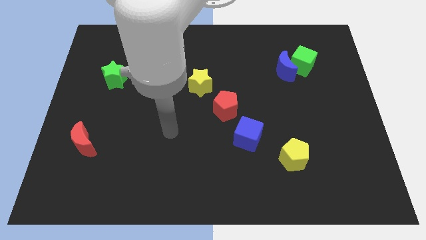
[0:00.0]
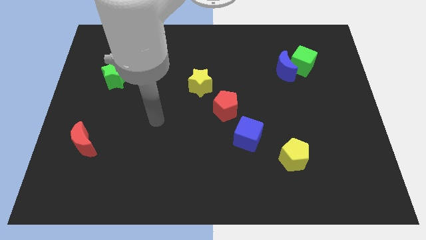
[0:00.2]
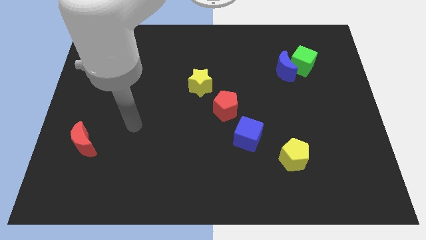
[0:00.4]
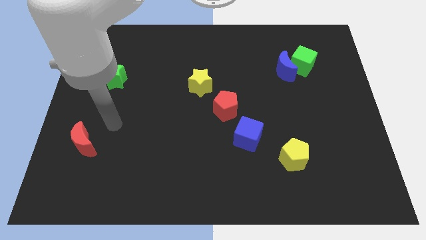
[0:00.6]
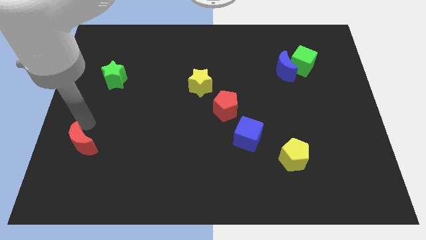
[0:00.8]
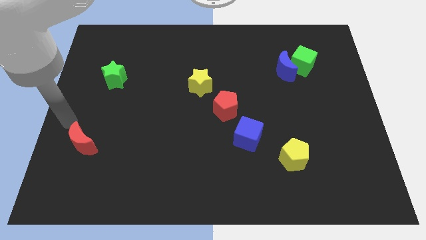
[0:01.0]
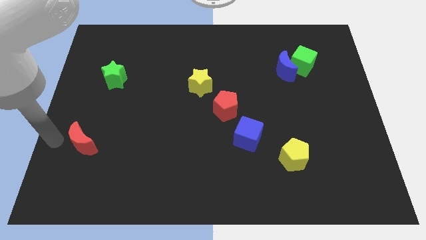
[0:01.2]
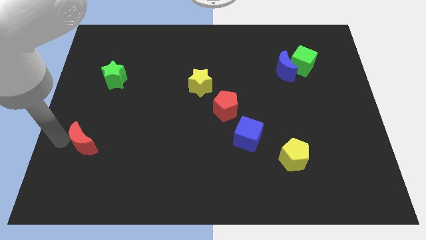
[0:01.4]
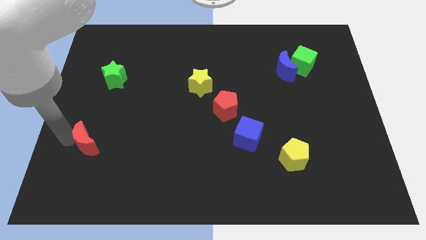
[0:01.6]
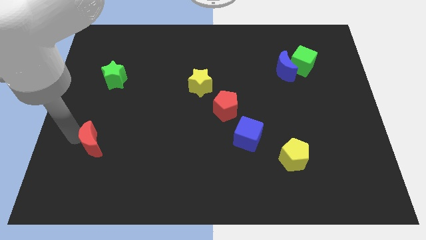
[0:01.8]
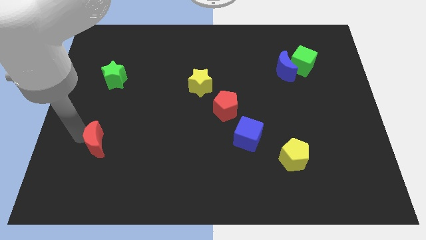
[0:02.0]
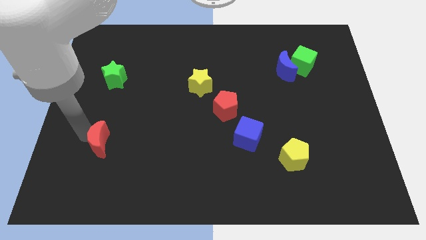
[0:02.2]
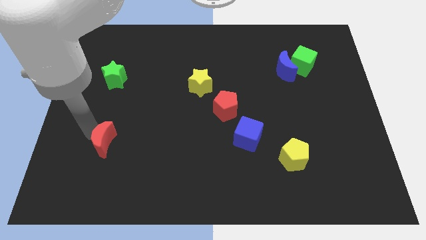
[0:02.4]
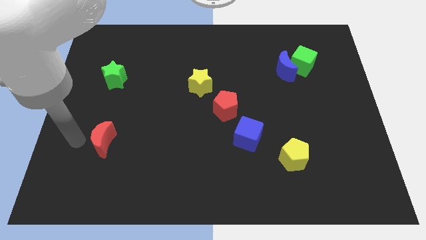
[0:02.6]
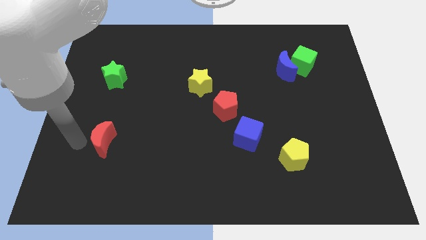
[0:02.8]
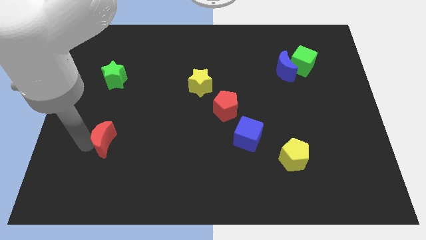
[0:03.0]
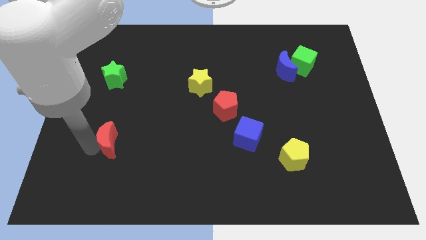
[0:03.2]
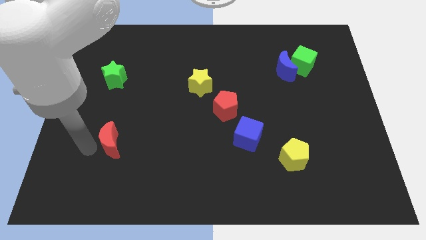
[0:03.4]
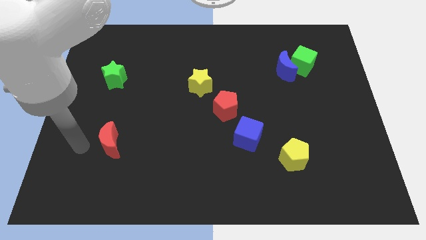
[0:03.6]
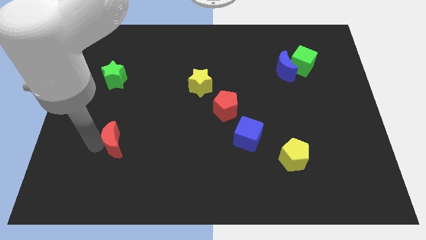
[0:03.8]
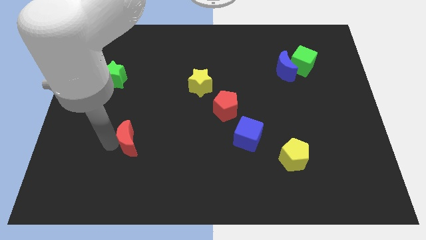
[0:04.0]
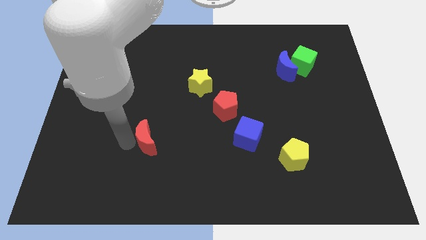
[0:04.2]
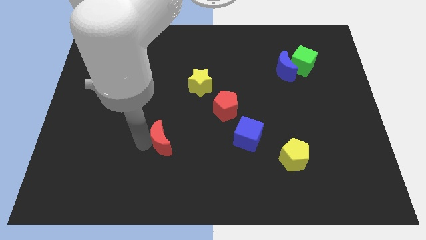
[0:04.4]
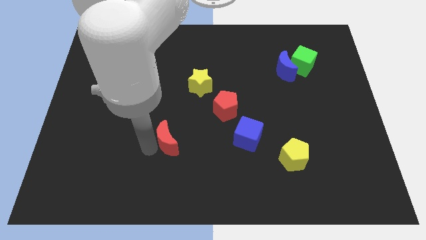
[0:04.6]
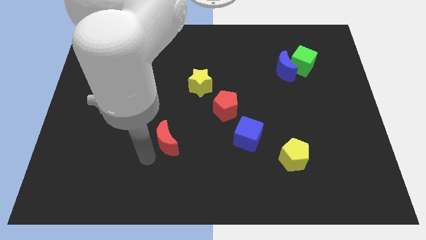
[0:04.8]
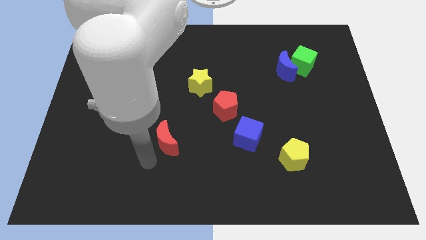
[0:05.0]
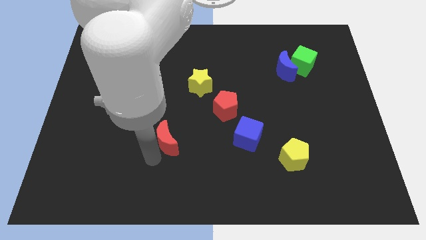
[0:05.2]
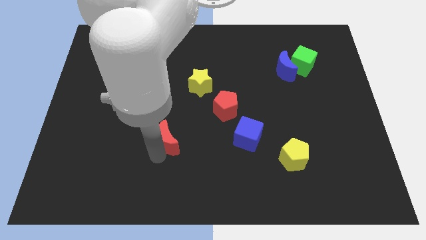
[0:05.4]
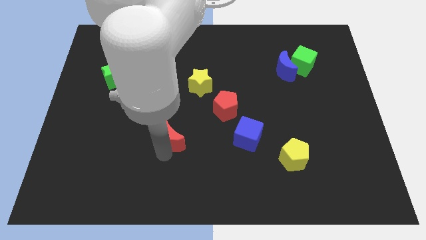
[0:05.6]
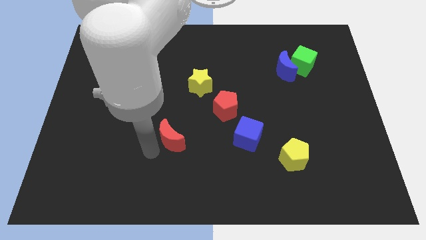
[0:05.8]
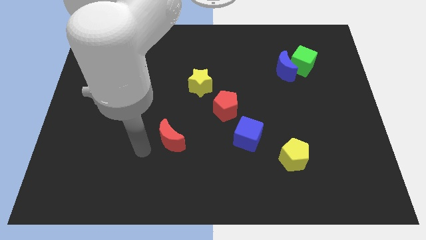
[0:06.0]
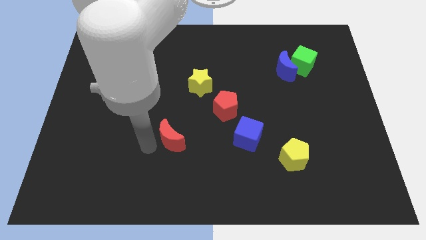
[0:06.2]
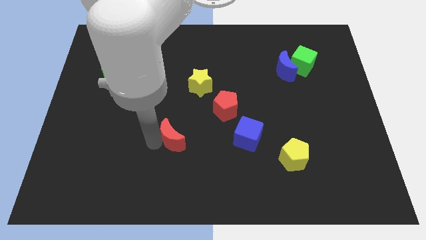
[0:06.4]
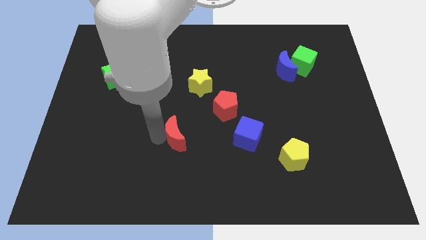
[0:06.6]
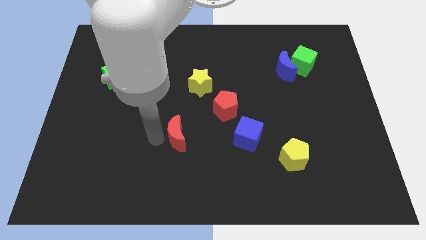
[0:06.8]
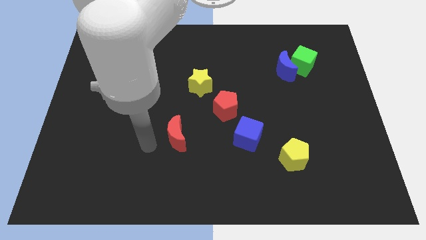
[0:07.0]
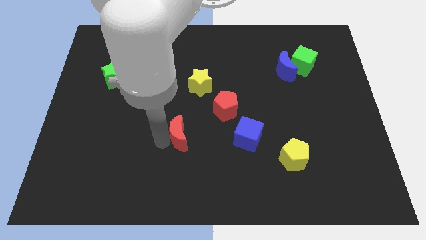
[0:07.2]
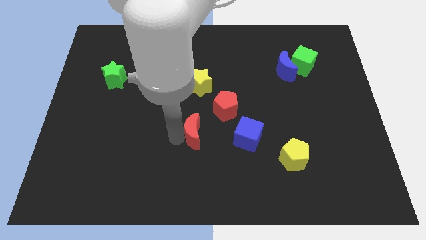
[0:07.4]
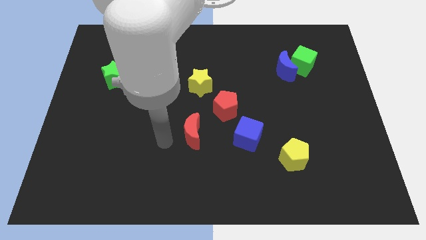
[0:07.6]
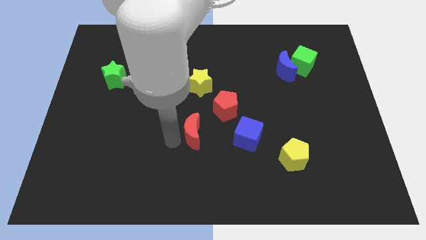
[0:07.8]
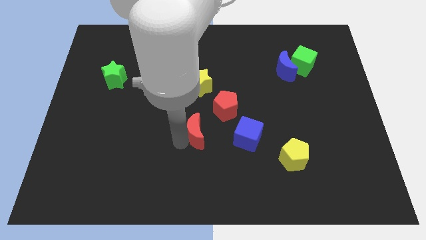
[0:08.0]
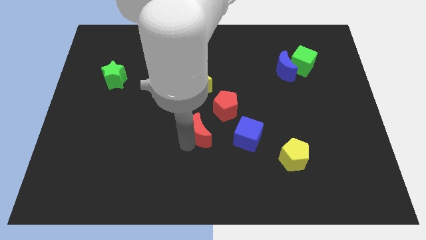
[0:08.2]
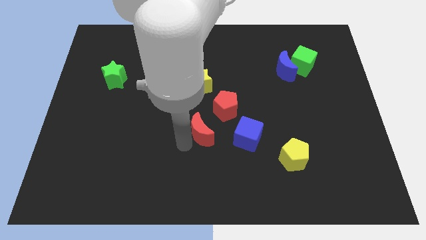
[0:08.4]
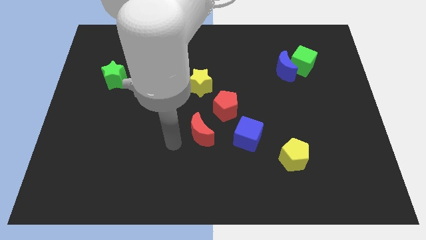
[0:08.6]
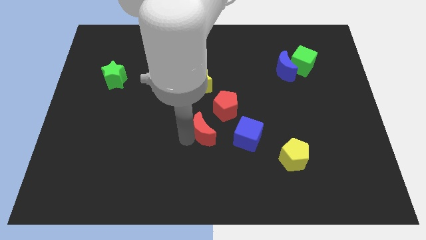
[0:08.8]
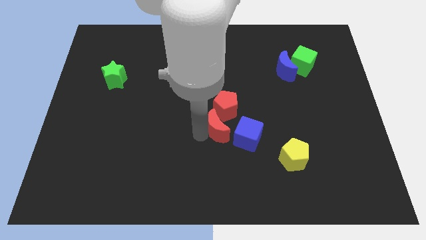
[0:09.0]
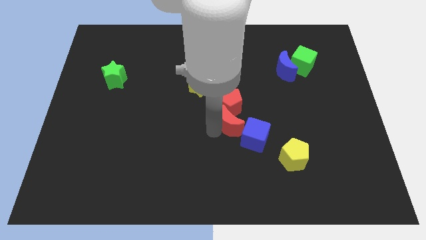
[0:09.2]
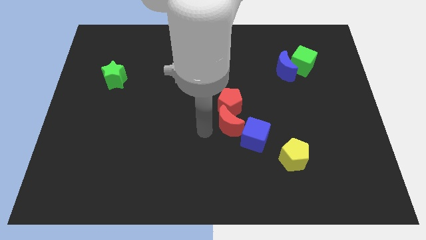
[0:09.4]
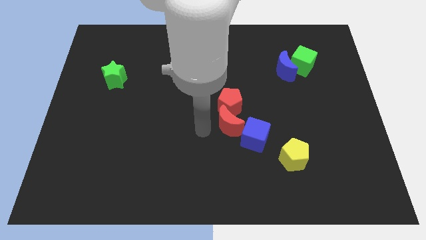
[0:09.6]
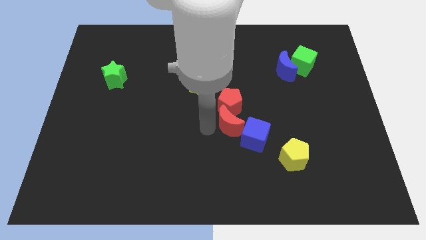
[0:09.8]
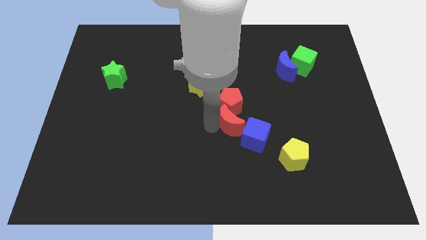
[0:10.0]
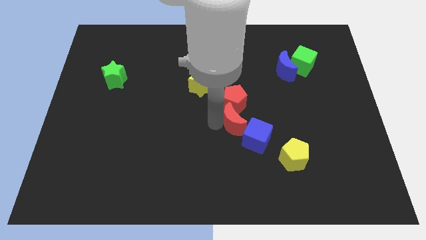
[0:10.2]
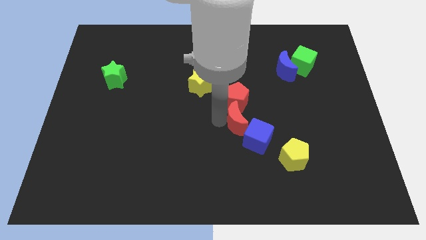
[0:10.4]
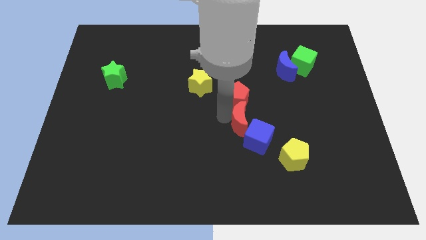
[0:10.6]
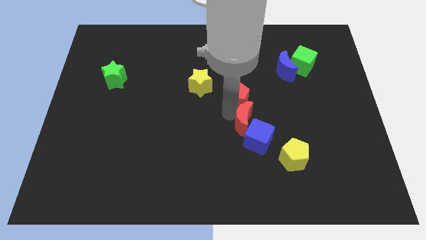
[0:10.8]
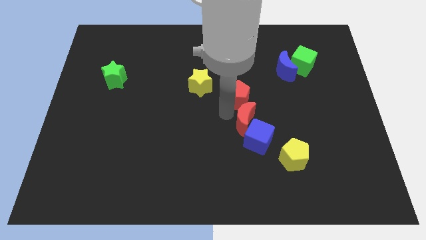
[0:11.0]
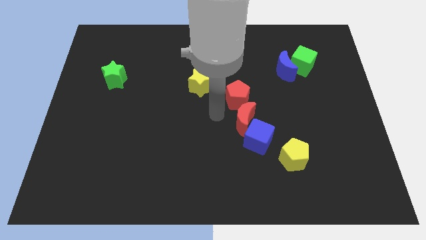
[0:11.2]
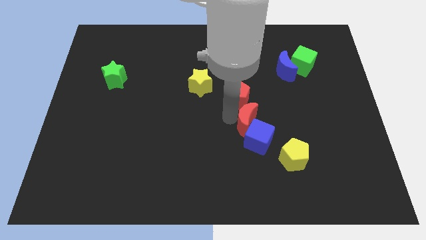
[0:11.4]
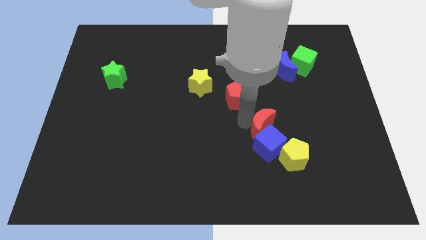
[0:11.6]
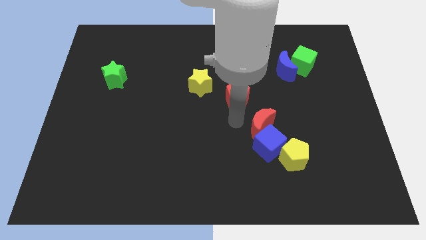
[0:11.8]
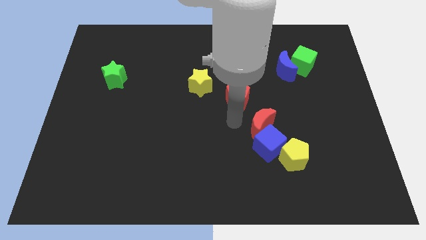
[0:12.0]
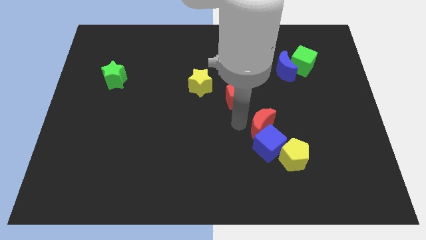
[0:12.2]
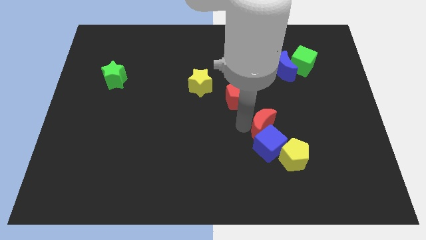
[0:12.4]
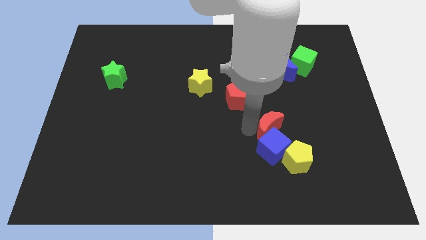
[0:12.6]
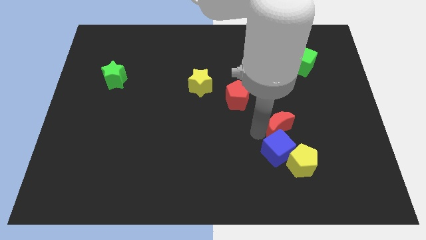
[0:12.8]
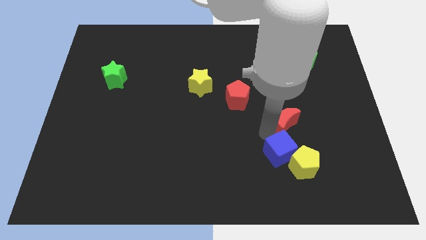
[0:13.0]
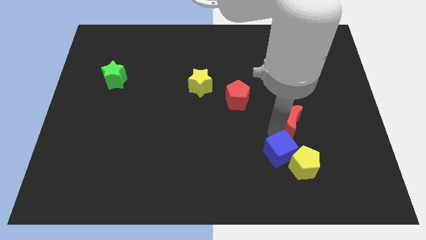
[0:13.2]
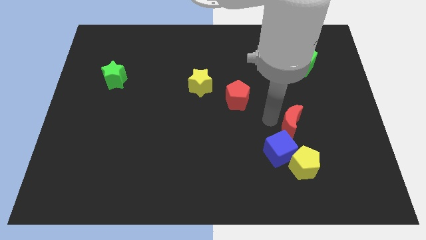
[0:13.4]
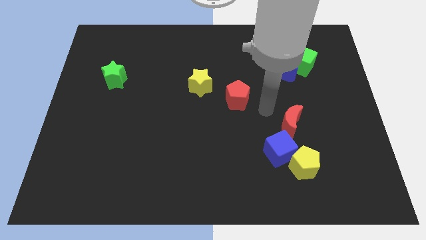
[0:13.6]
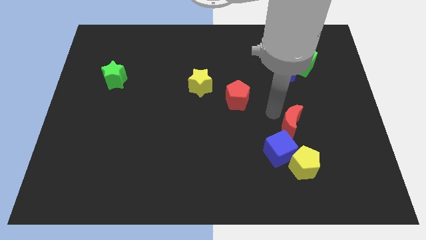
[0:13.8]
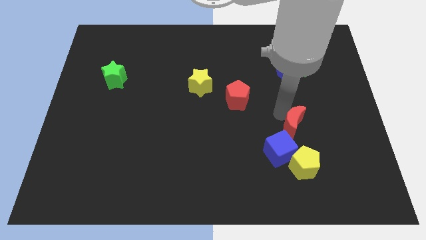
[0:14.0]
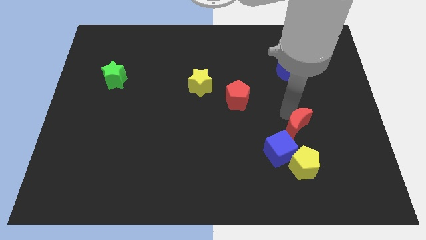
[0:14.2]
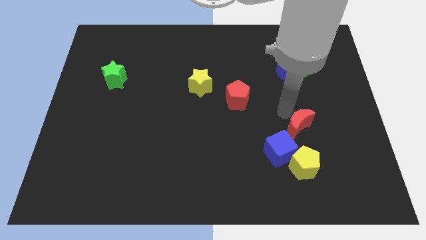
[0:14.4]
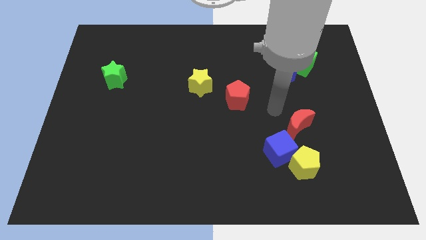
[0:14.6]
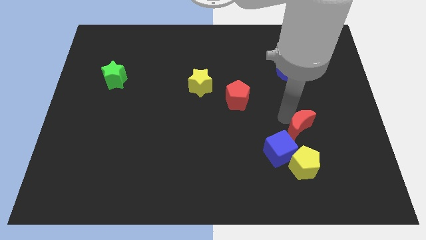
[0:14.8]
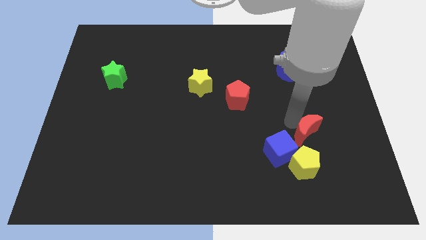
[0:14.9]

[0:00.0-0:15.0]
push the red moon to the top right of the yellow pentagon
